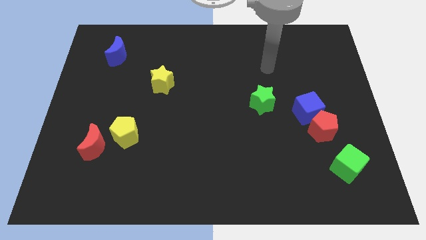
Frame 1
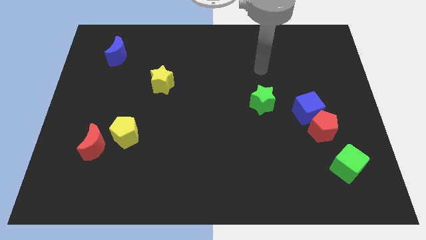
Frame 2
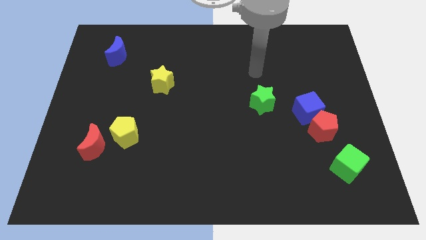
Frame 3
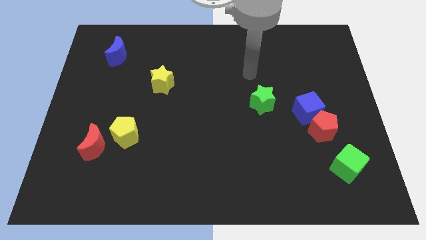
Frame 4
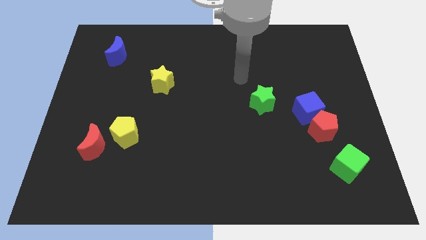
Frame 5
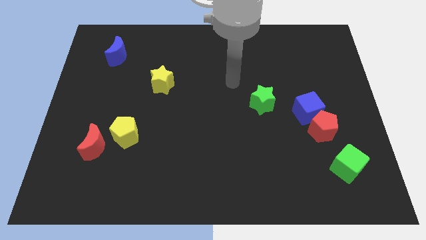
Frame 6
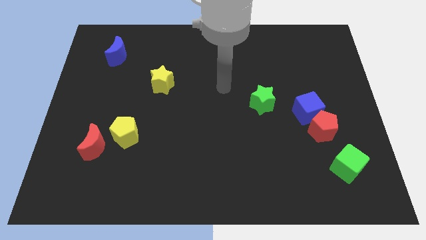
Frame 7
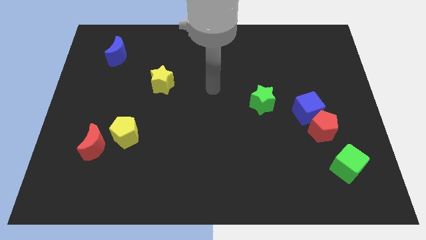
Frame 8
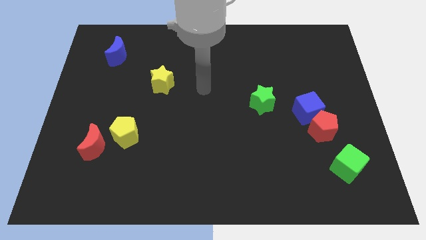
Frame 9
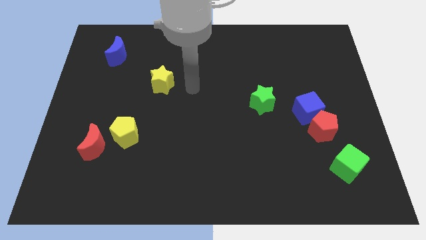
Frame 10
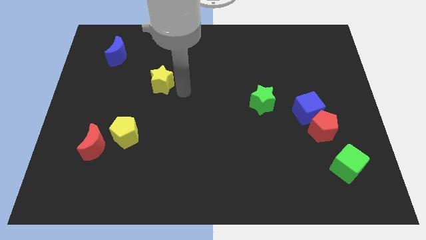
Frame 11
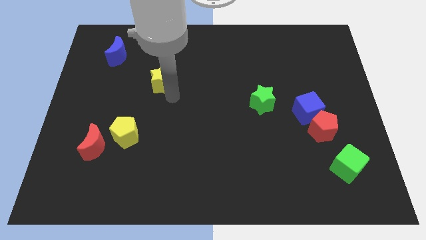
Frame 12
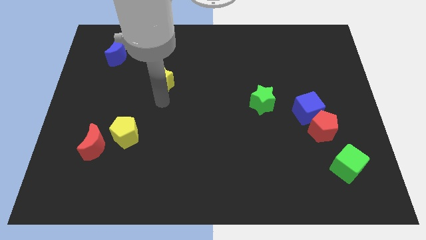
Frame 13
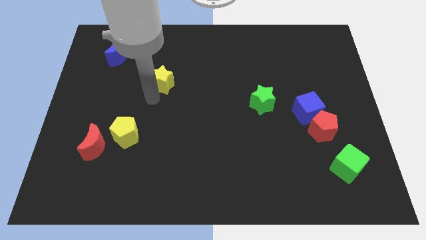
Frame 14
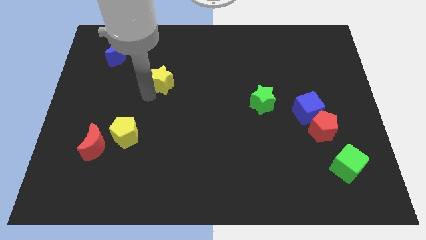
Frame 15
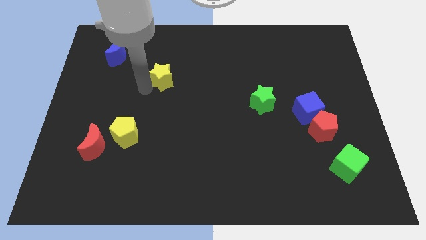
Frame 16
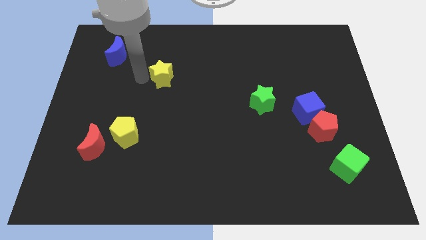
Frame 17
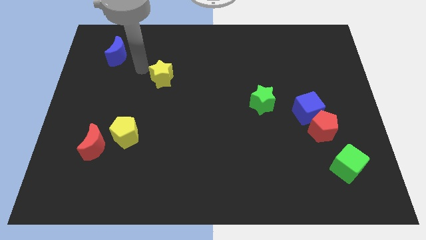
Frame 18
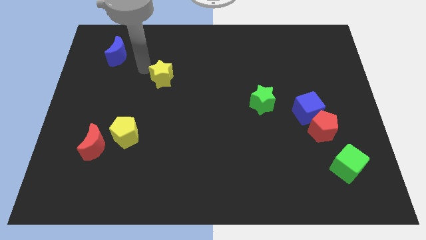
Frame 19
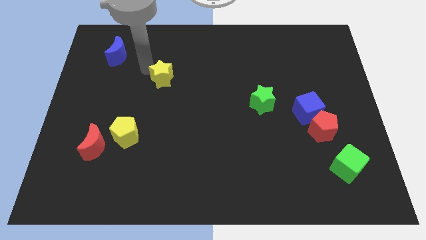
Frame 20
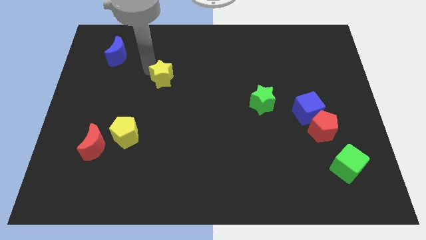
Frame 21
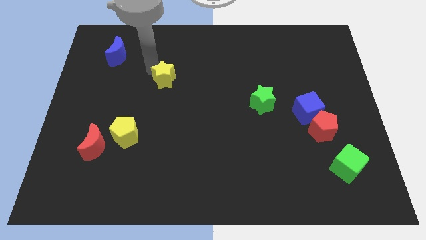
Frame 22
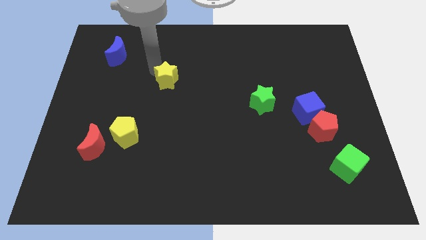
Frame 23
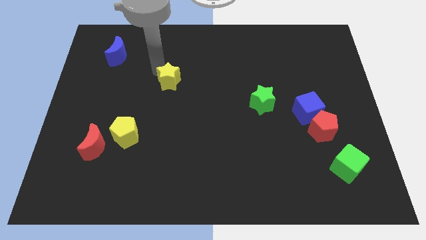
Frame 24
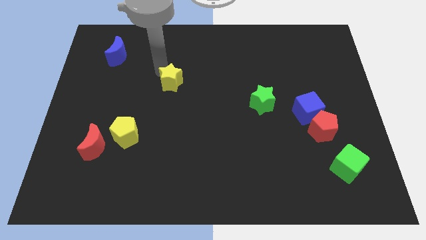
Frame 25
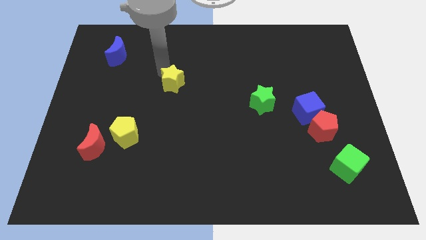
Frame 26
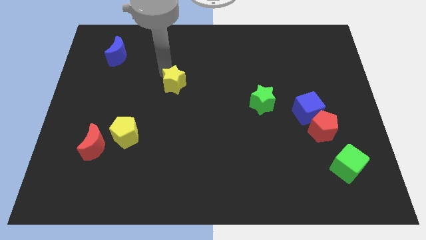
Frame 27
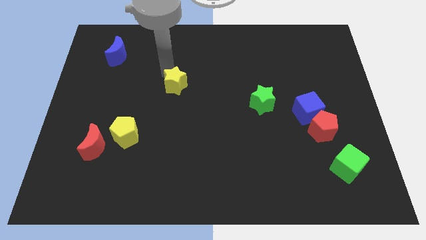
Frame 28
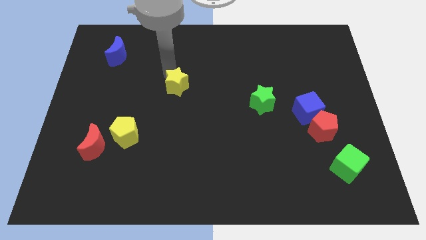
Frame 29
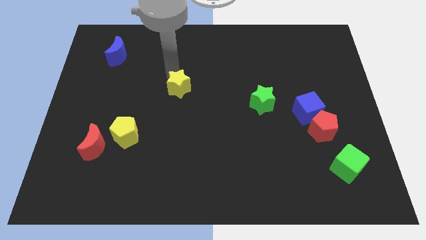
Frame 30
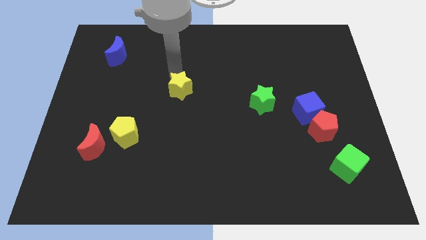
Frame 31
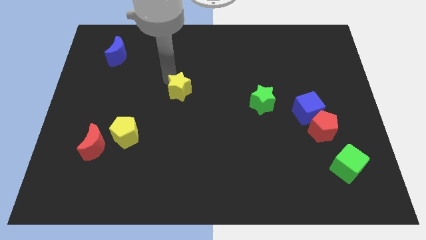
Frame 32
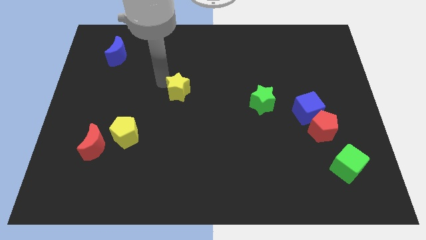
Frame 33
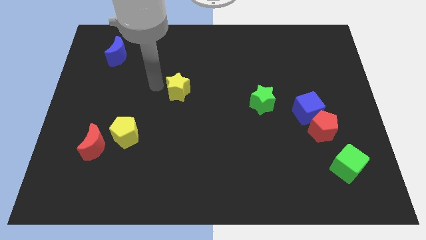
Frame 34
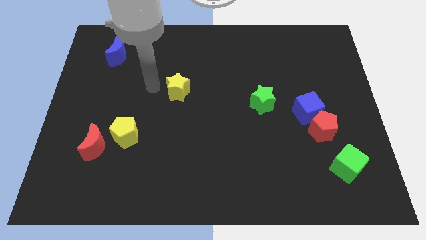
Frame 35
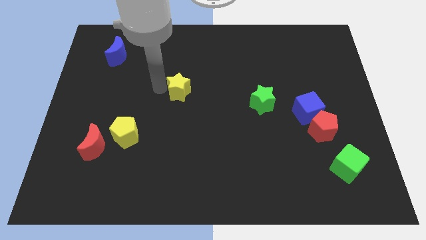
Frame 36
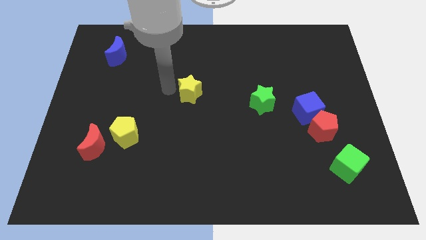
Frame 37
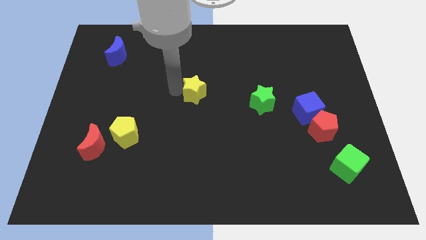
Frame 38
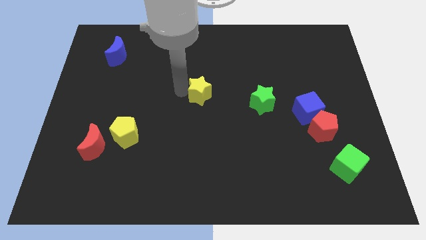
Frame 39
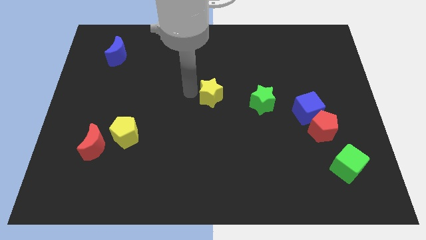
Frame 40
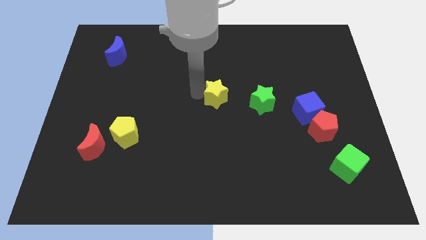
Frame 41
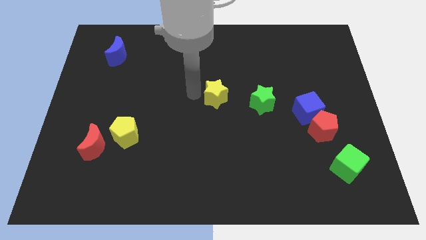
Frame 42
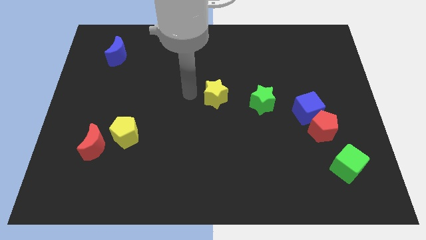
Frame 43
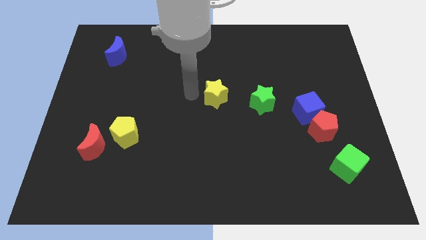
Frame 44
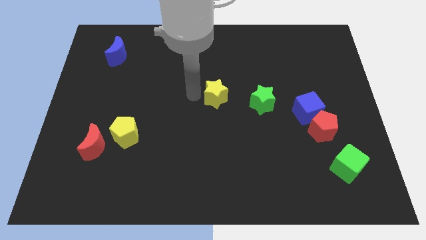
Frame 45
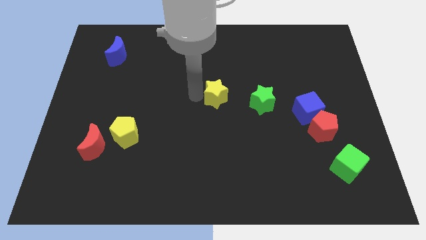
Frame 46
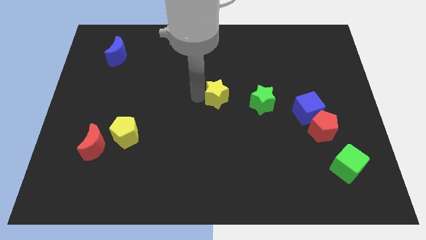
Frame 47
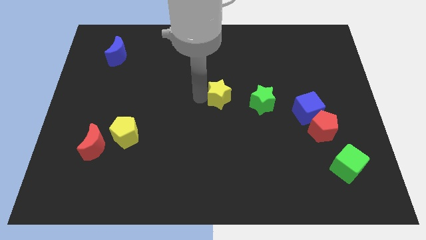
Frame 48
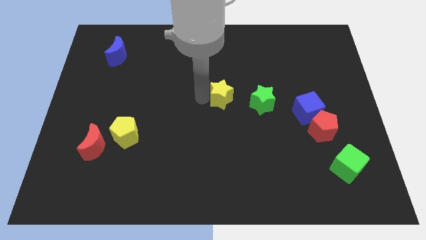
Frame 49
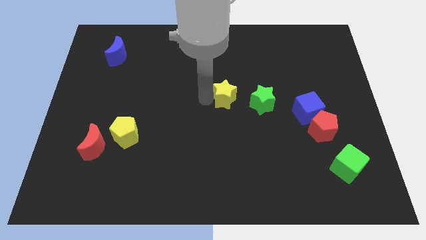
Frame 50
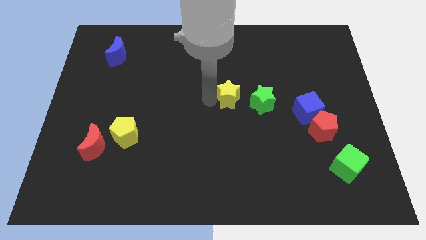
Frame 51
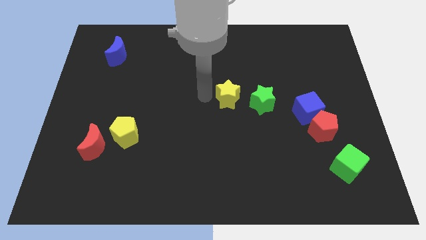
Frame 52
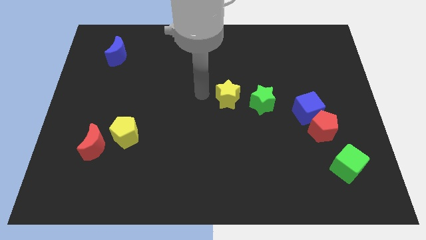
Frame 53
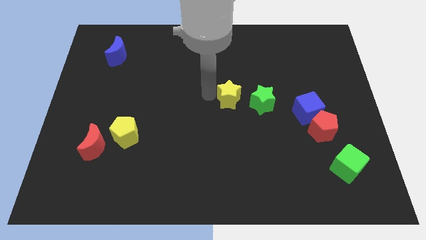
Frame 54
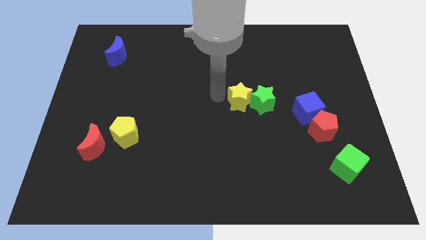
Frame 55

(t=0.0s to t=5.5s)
slide the yellow star towards the green star
